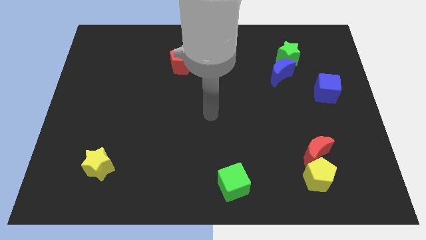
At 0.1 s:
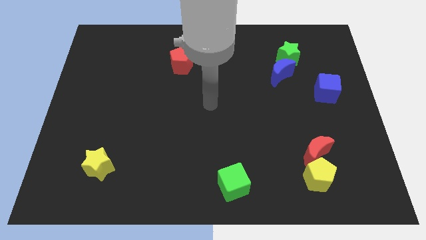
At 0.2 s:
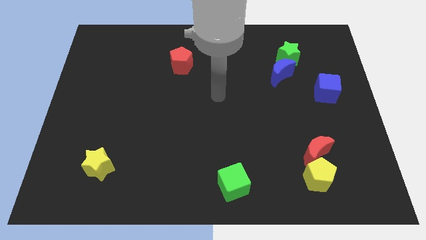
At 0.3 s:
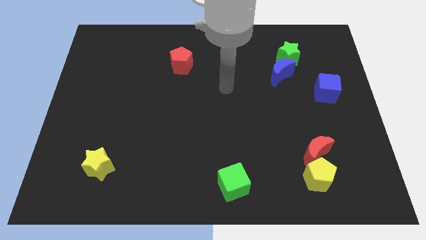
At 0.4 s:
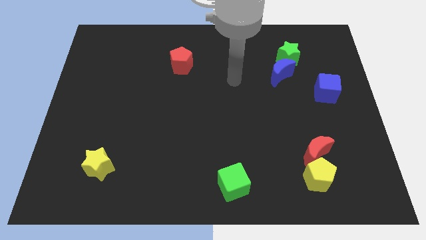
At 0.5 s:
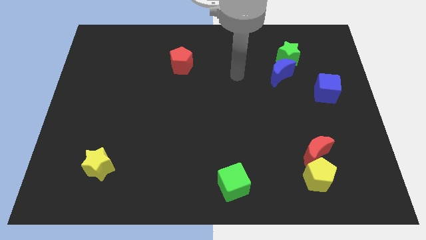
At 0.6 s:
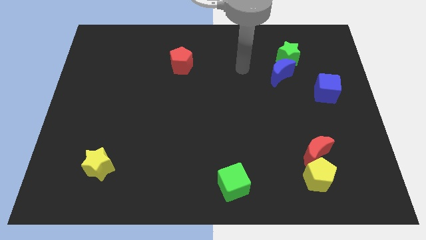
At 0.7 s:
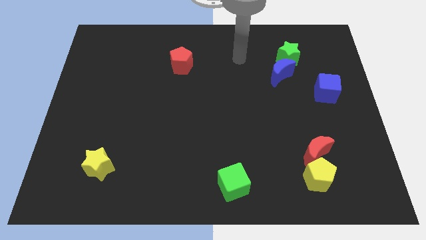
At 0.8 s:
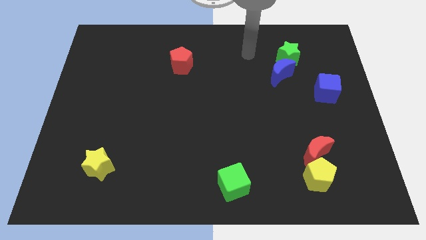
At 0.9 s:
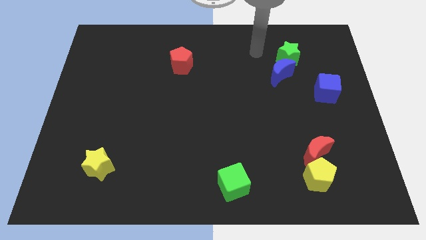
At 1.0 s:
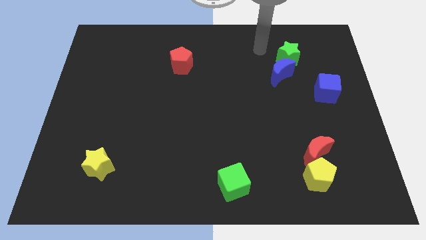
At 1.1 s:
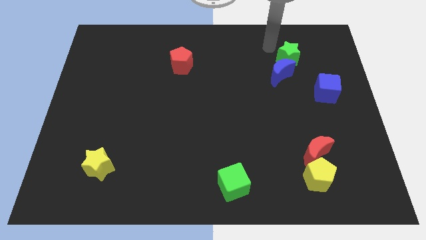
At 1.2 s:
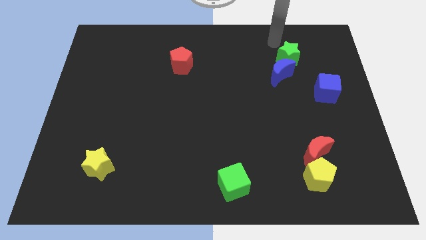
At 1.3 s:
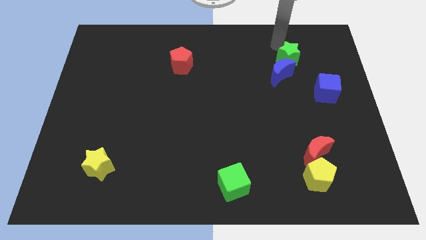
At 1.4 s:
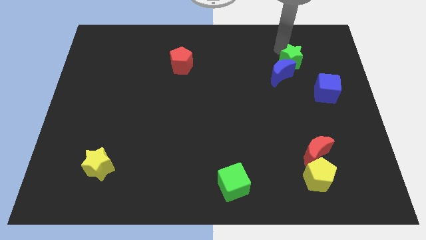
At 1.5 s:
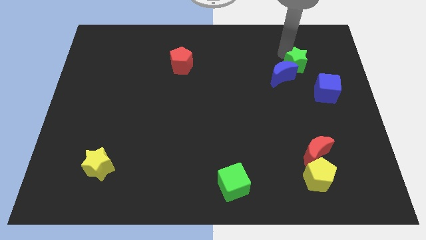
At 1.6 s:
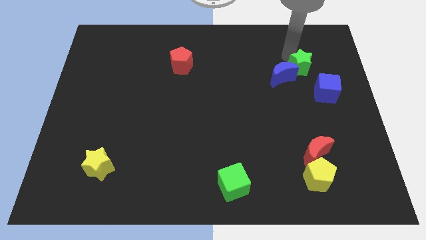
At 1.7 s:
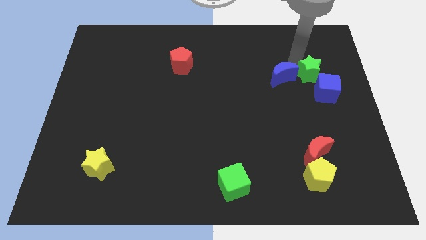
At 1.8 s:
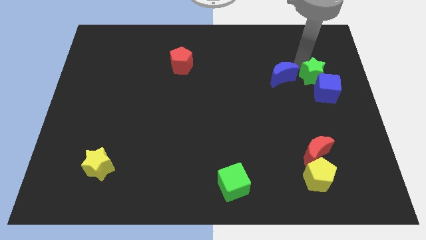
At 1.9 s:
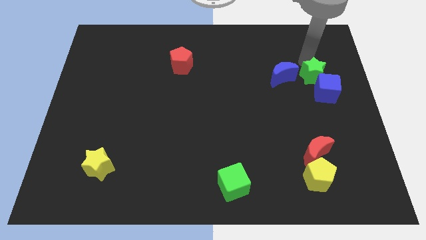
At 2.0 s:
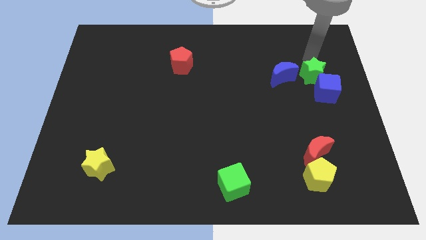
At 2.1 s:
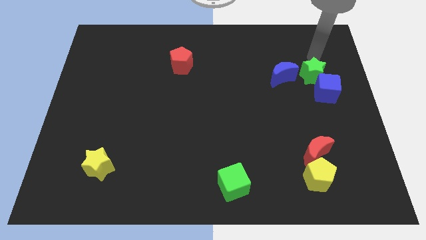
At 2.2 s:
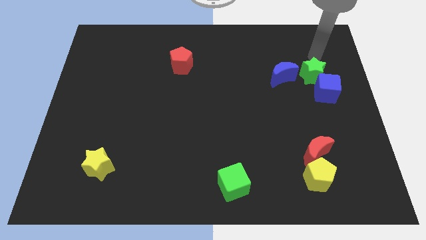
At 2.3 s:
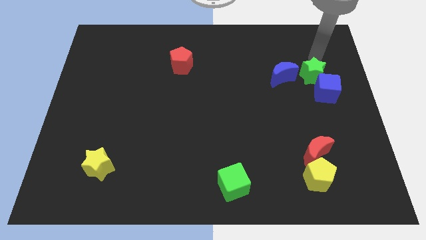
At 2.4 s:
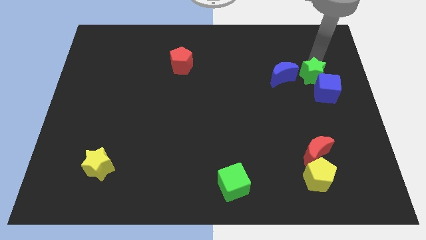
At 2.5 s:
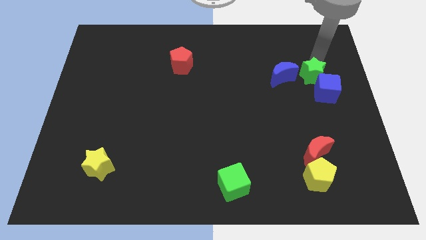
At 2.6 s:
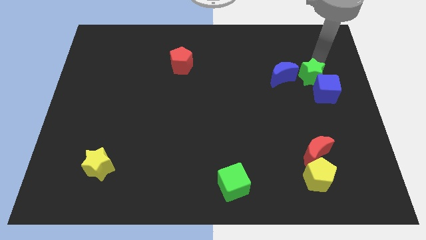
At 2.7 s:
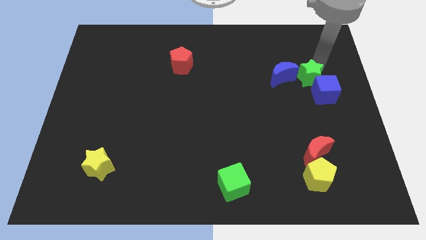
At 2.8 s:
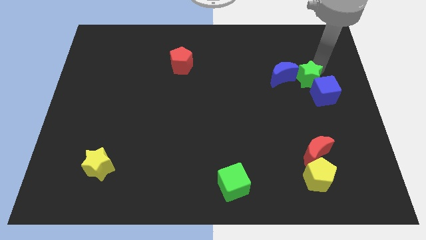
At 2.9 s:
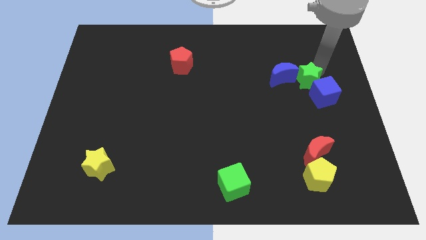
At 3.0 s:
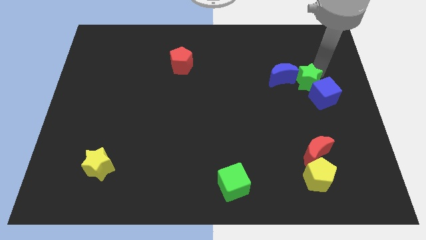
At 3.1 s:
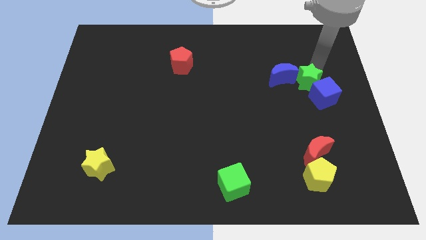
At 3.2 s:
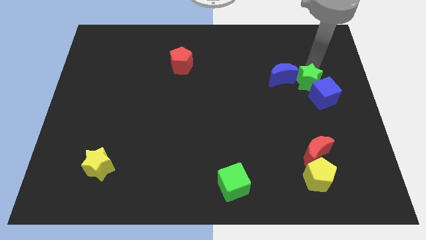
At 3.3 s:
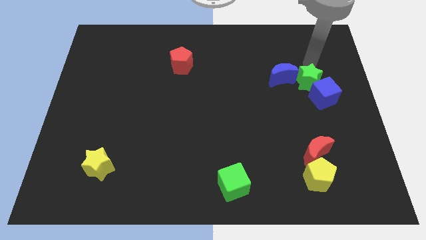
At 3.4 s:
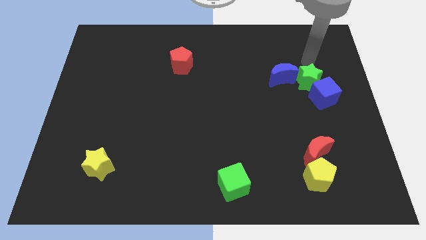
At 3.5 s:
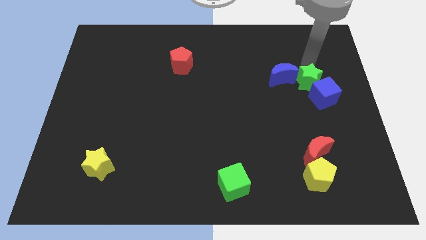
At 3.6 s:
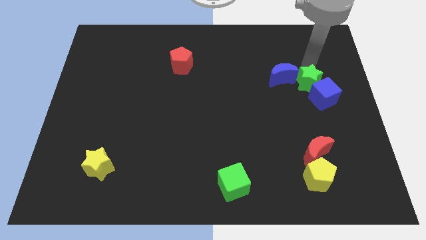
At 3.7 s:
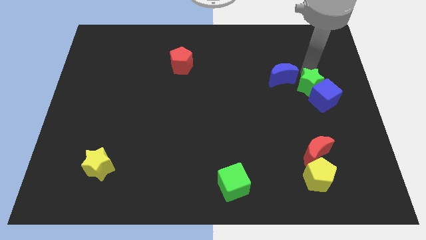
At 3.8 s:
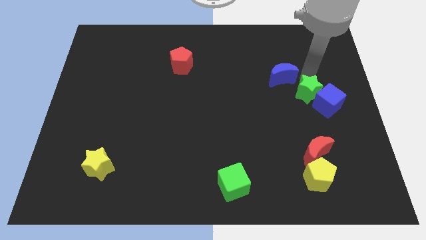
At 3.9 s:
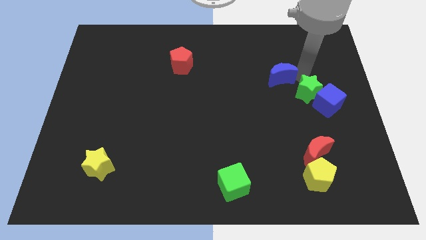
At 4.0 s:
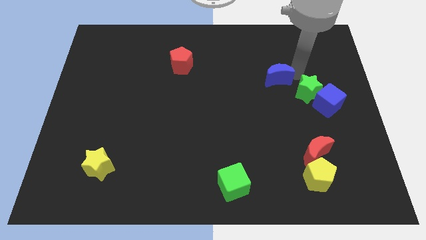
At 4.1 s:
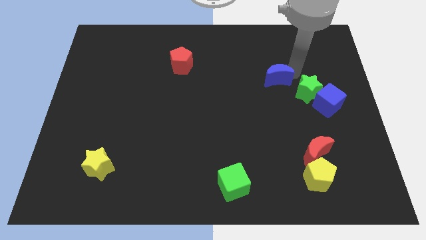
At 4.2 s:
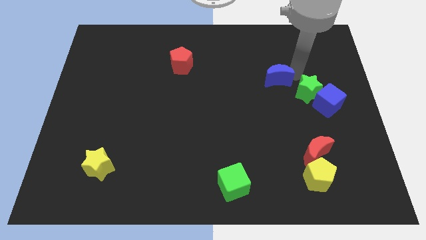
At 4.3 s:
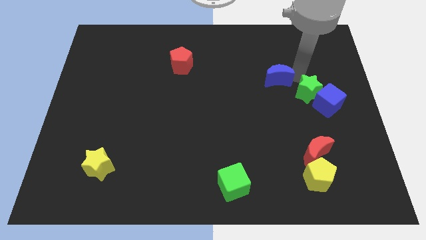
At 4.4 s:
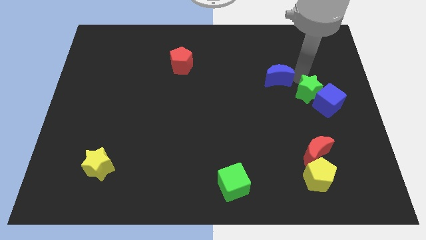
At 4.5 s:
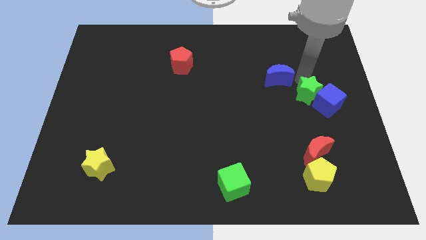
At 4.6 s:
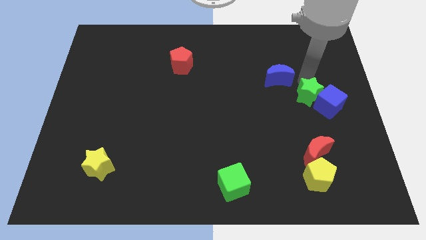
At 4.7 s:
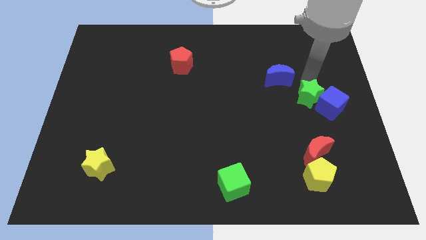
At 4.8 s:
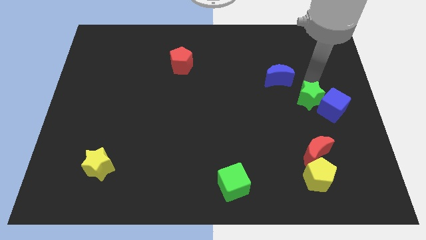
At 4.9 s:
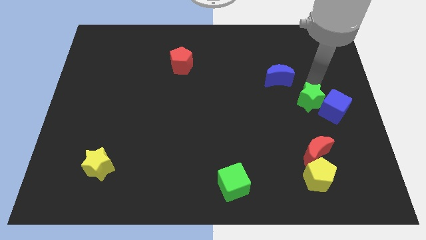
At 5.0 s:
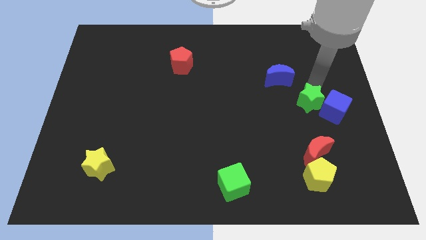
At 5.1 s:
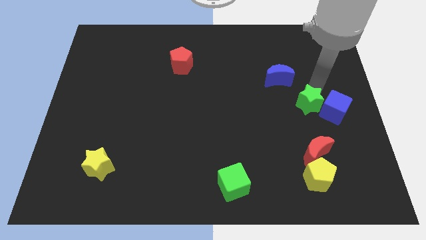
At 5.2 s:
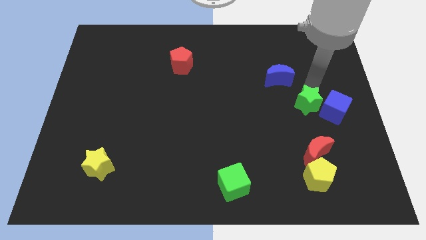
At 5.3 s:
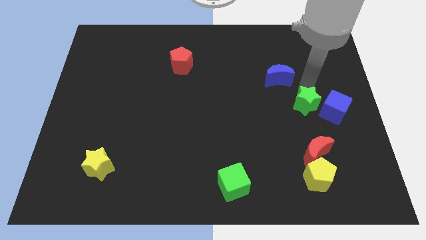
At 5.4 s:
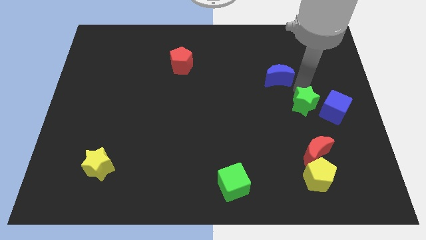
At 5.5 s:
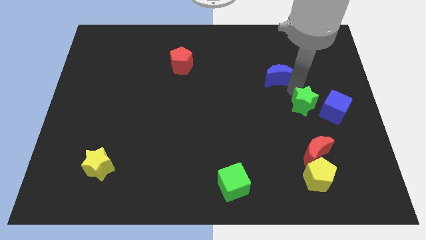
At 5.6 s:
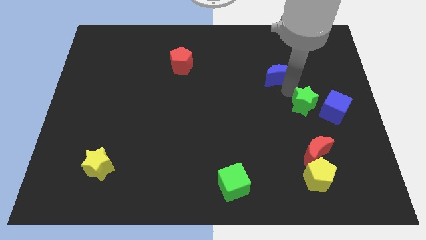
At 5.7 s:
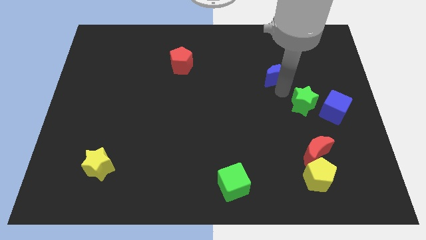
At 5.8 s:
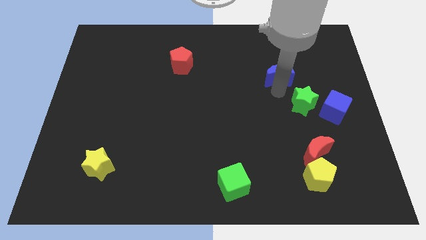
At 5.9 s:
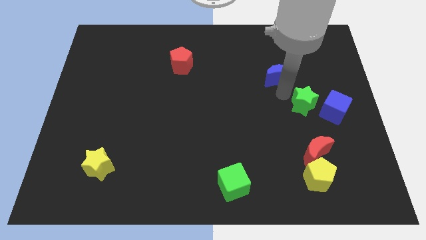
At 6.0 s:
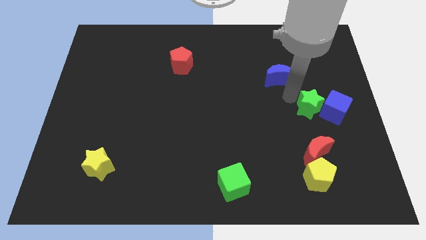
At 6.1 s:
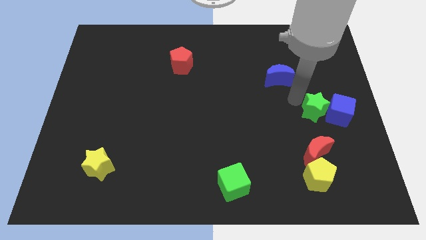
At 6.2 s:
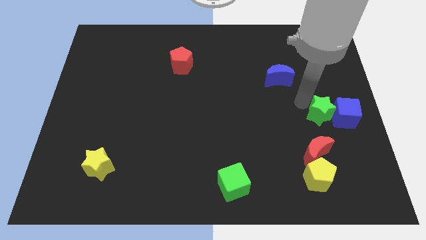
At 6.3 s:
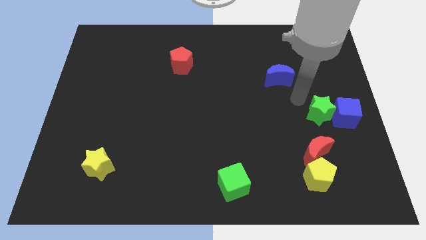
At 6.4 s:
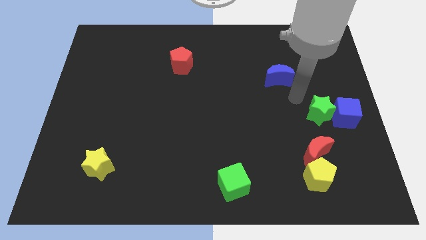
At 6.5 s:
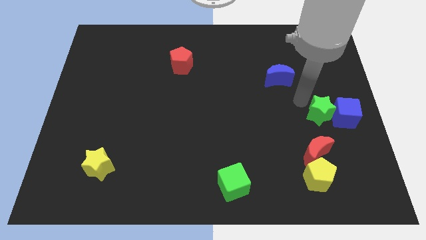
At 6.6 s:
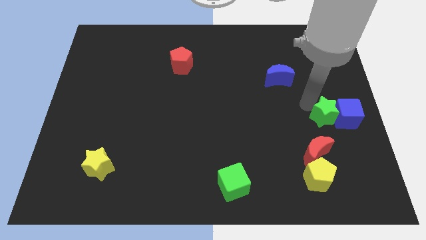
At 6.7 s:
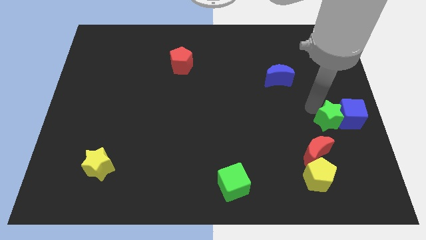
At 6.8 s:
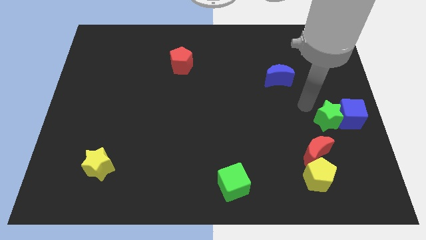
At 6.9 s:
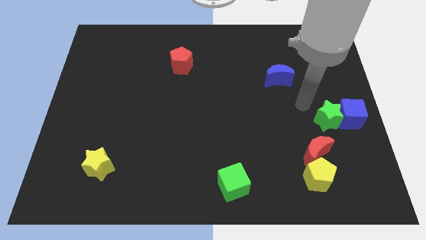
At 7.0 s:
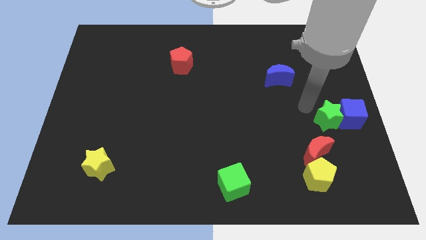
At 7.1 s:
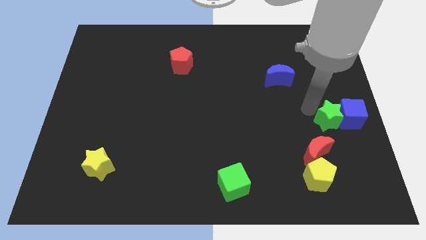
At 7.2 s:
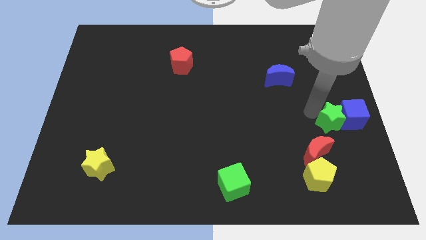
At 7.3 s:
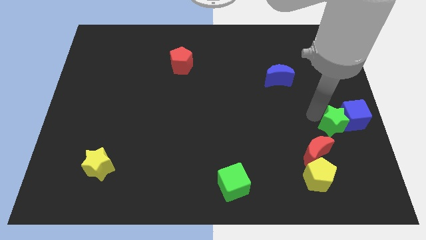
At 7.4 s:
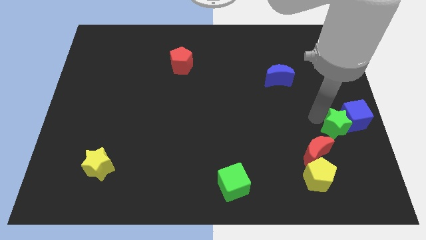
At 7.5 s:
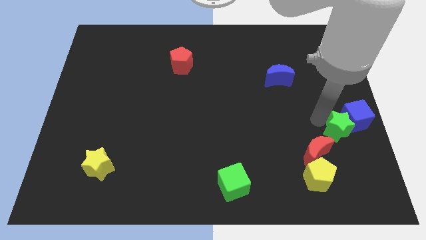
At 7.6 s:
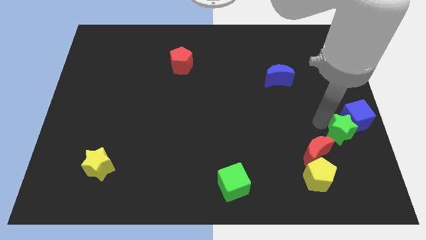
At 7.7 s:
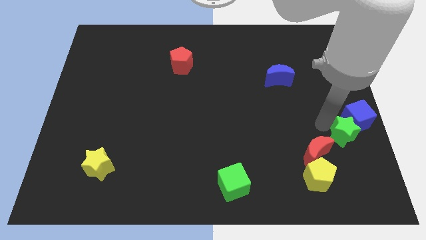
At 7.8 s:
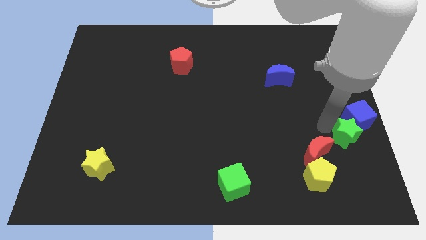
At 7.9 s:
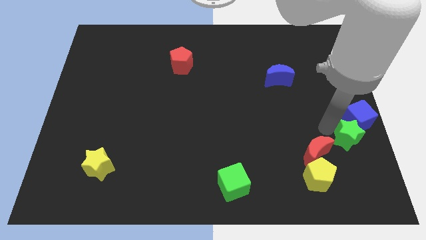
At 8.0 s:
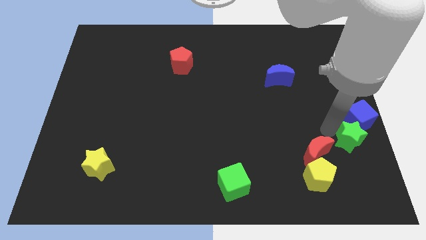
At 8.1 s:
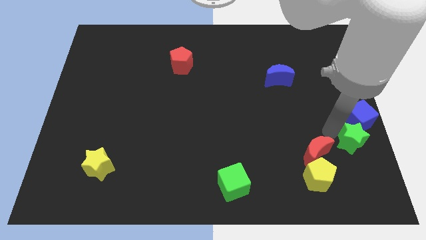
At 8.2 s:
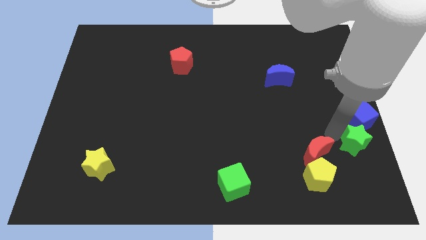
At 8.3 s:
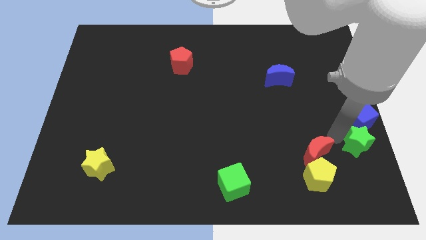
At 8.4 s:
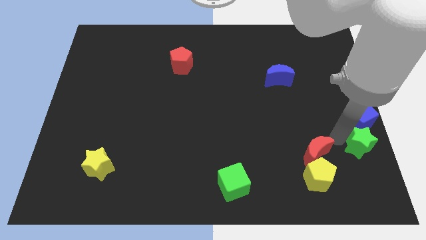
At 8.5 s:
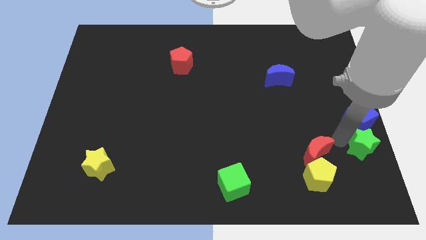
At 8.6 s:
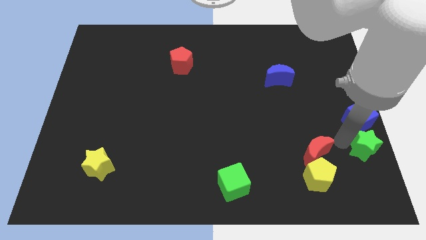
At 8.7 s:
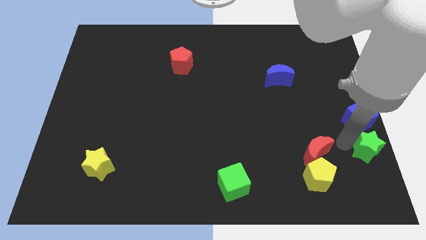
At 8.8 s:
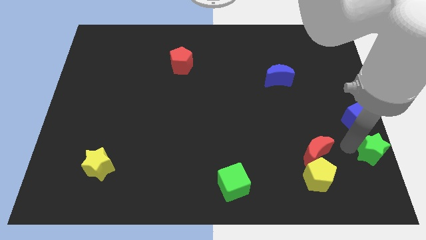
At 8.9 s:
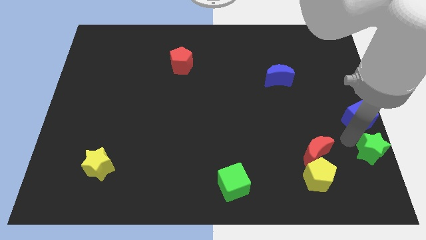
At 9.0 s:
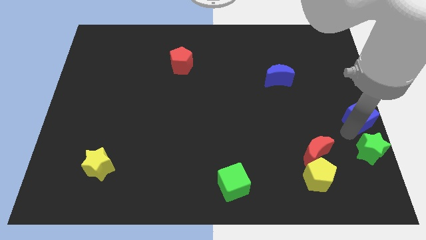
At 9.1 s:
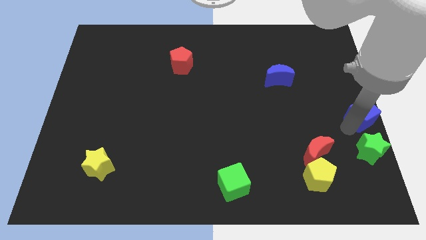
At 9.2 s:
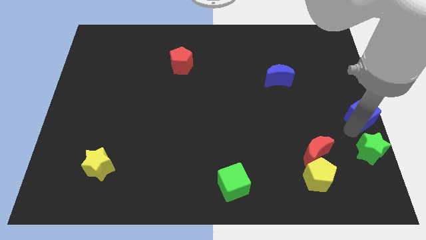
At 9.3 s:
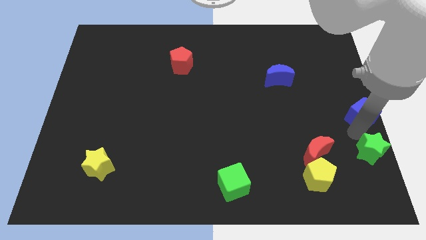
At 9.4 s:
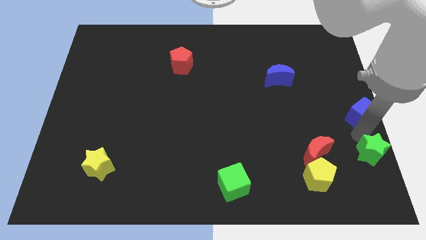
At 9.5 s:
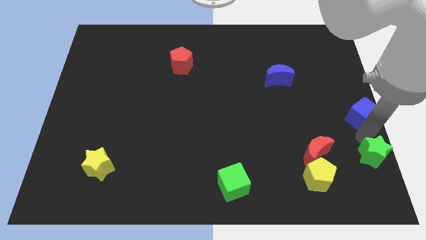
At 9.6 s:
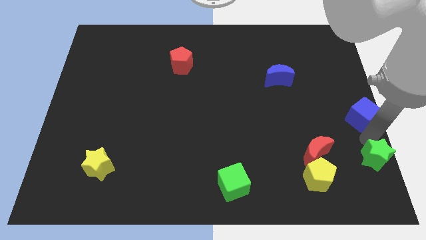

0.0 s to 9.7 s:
move the green star to the bottom right
